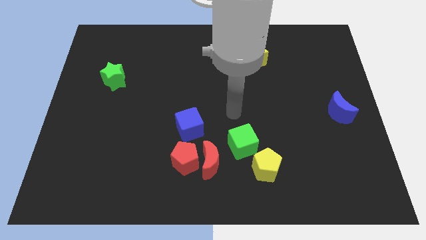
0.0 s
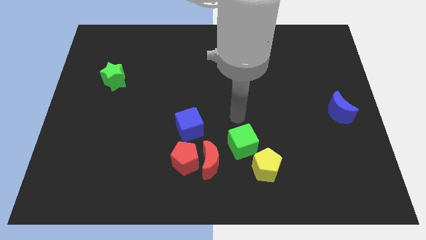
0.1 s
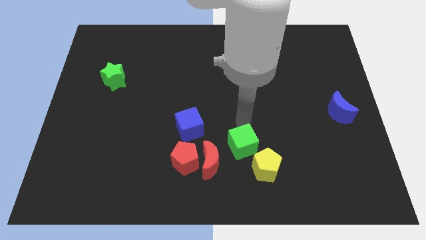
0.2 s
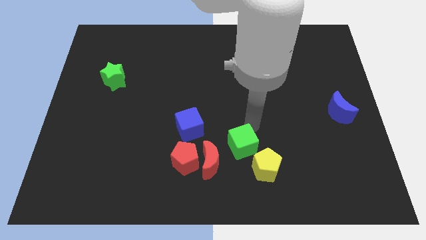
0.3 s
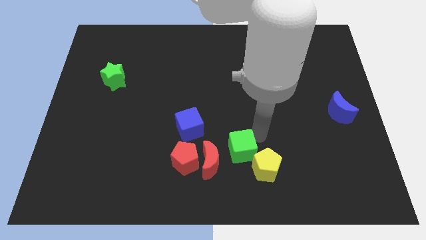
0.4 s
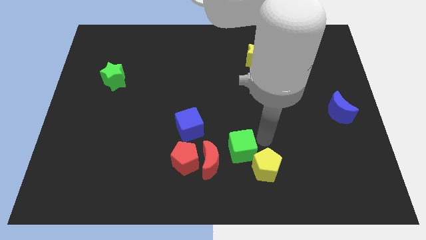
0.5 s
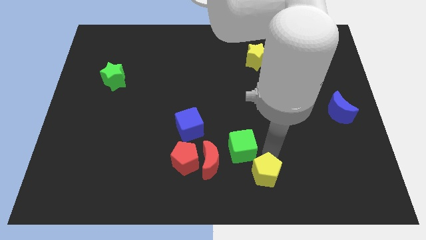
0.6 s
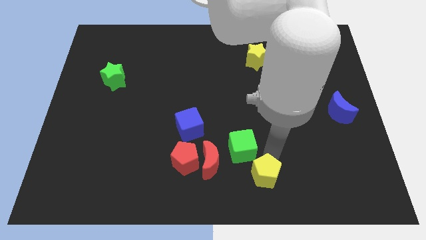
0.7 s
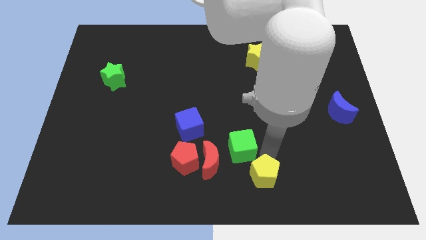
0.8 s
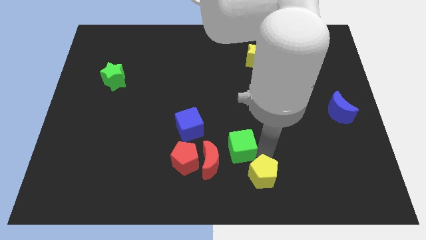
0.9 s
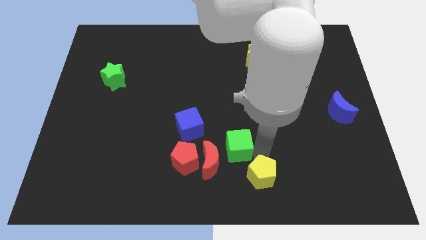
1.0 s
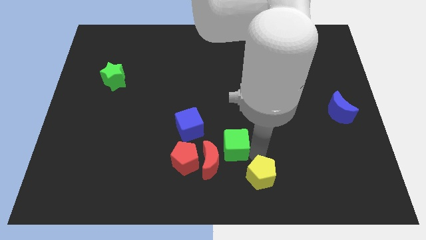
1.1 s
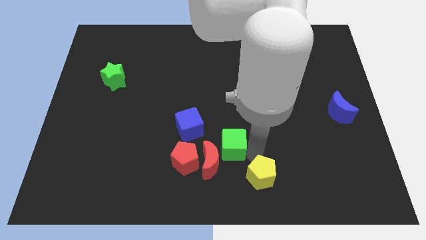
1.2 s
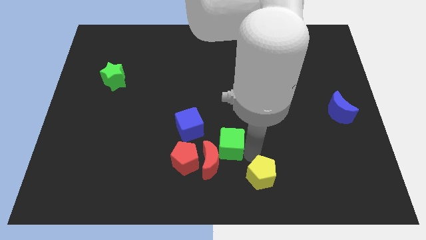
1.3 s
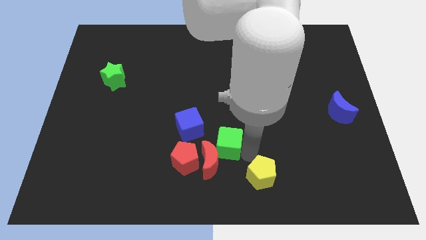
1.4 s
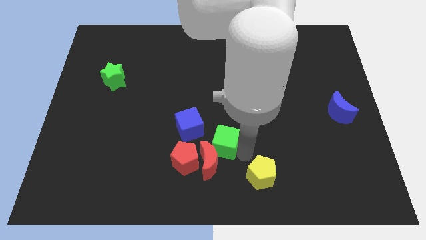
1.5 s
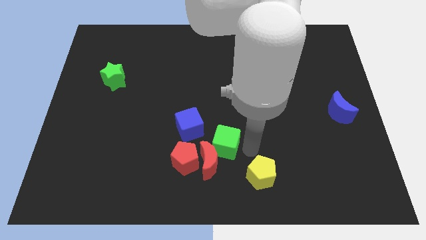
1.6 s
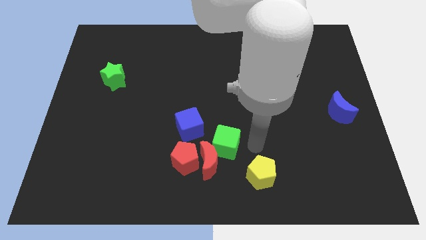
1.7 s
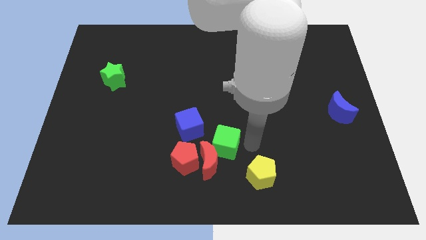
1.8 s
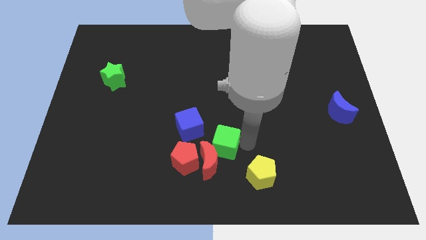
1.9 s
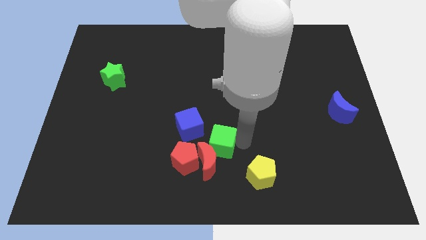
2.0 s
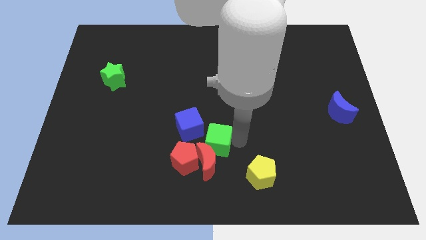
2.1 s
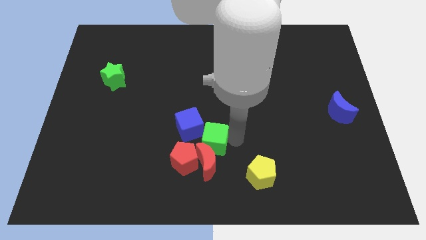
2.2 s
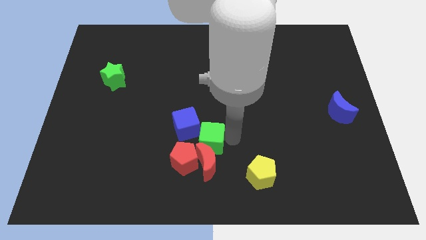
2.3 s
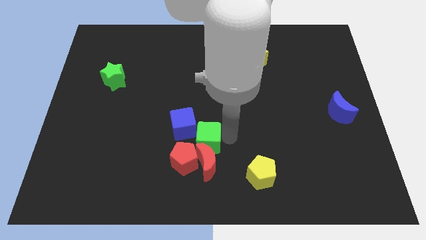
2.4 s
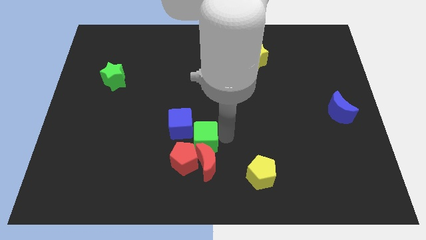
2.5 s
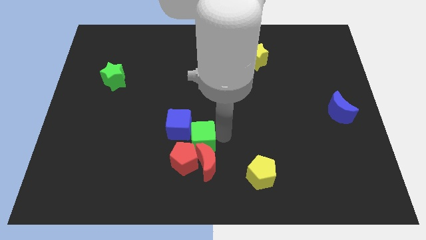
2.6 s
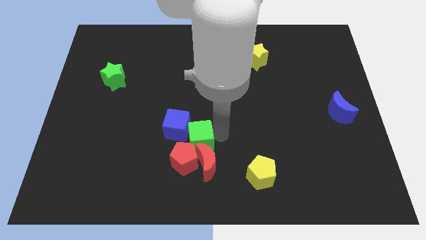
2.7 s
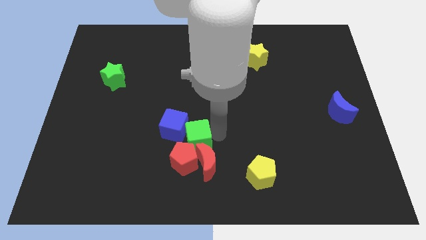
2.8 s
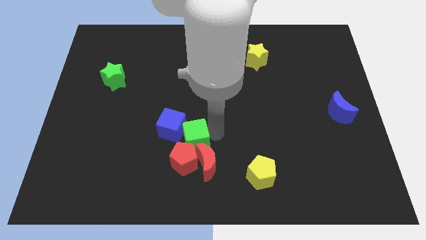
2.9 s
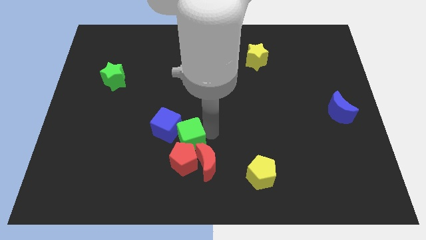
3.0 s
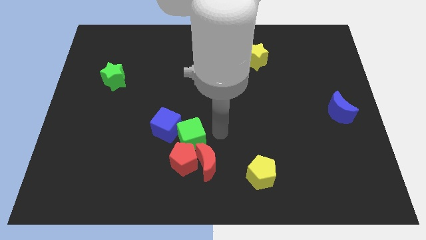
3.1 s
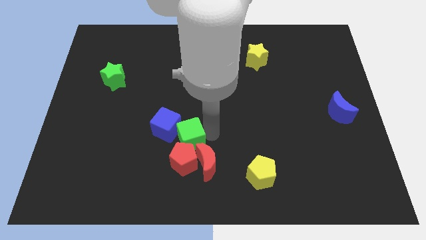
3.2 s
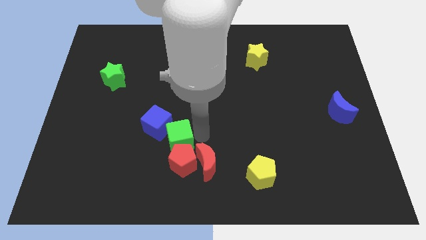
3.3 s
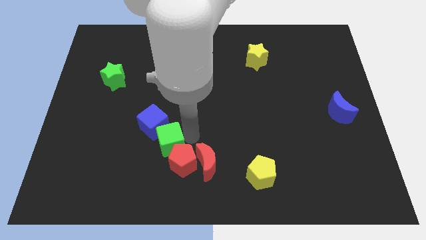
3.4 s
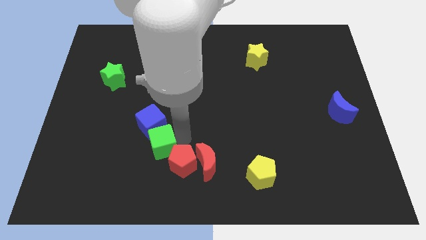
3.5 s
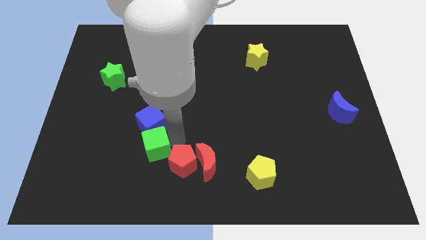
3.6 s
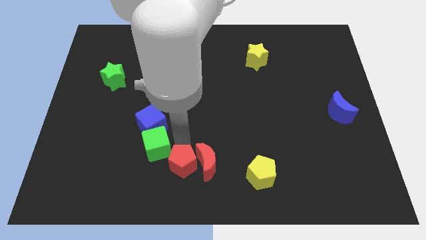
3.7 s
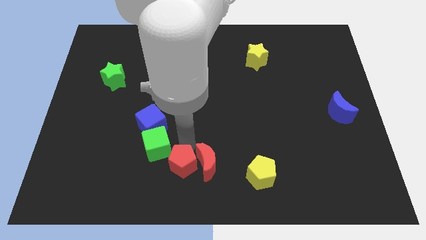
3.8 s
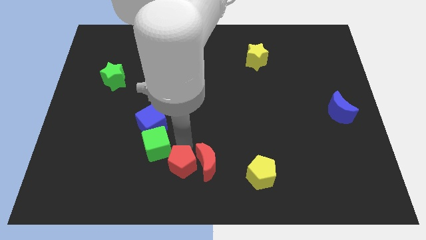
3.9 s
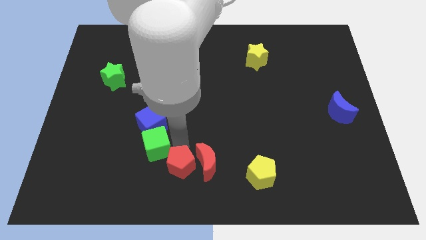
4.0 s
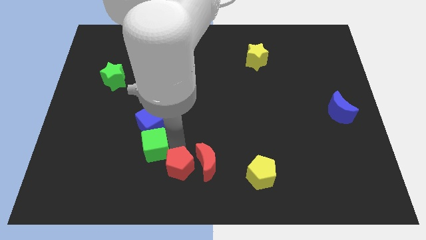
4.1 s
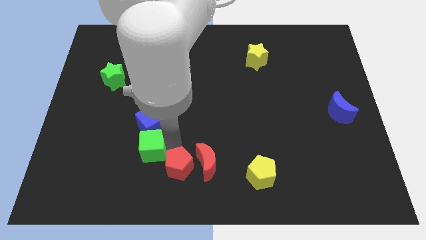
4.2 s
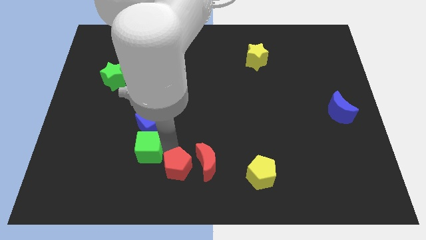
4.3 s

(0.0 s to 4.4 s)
push the green cube to the left

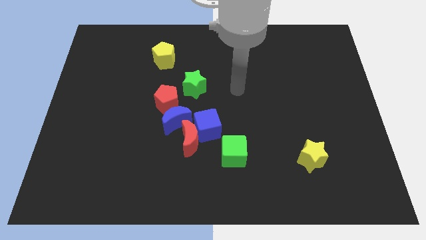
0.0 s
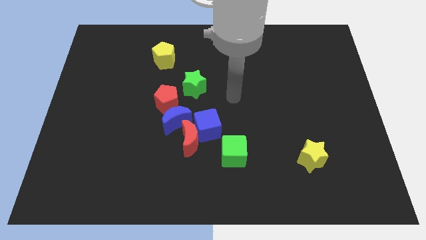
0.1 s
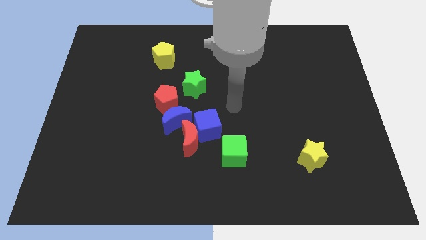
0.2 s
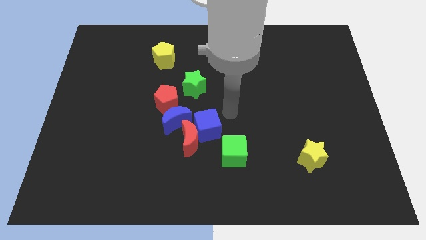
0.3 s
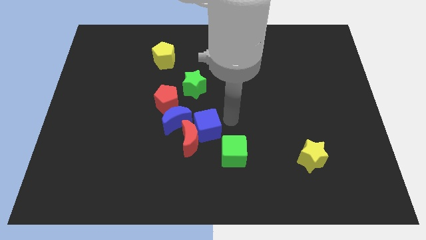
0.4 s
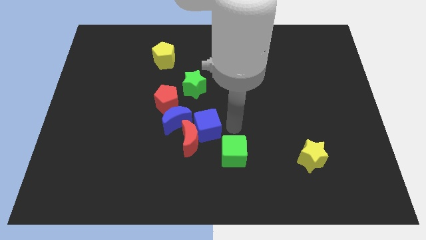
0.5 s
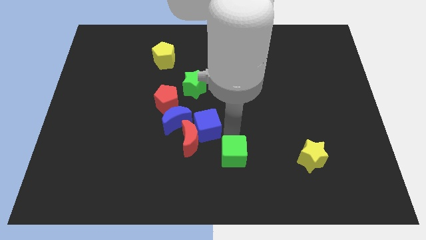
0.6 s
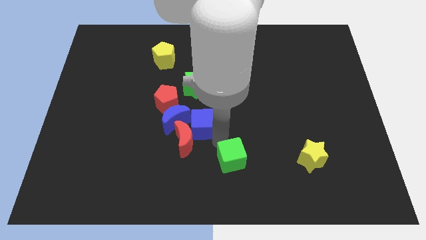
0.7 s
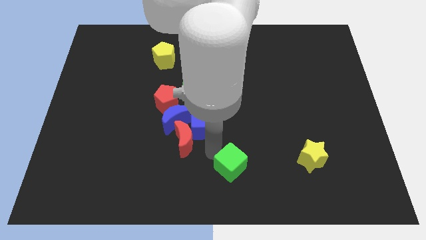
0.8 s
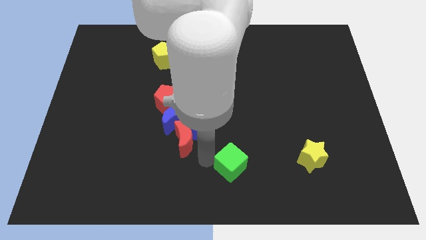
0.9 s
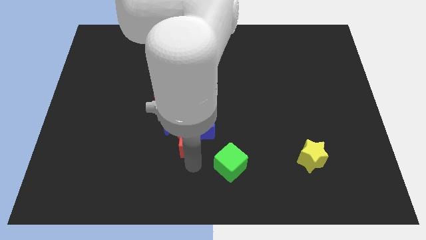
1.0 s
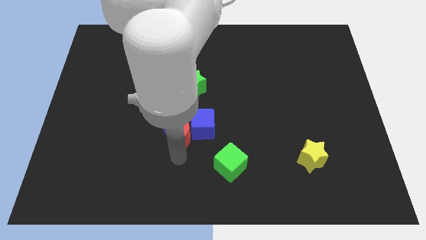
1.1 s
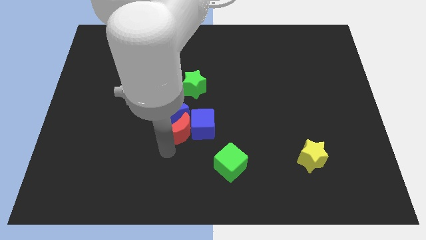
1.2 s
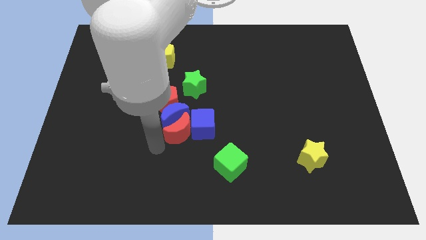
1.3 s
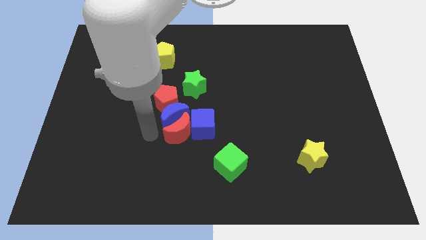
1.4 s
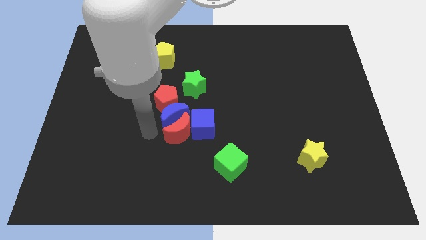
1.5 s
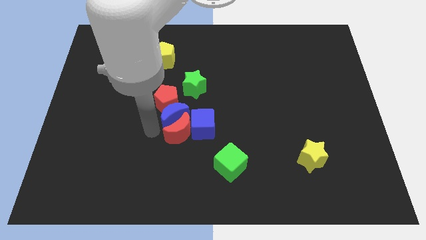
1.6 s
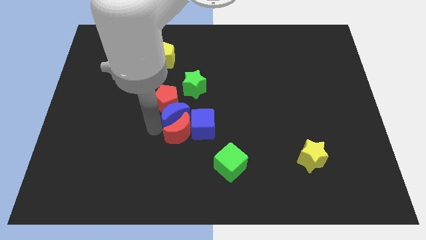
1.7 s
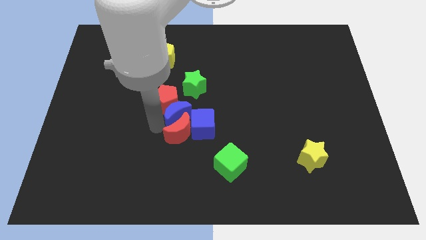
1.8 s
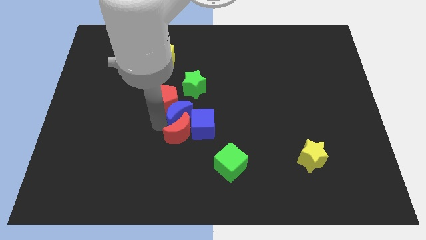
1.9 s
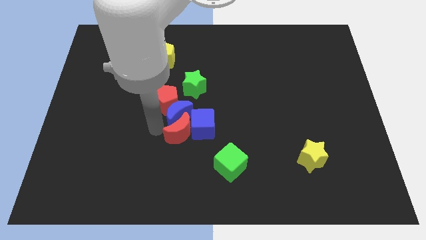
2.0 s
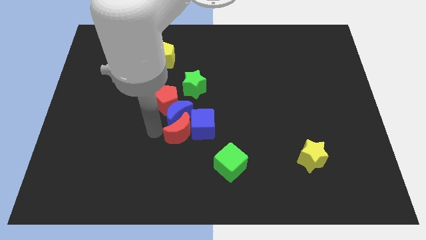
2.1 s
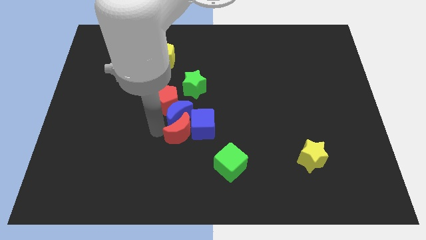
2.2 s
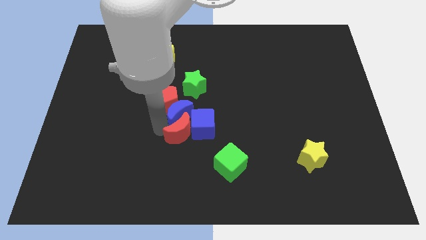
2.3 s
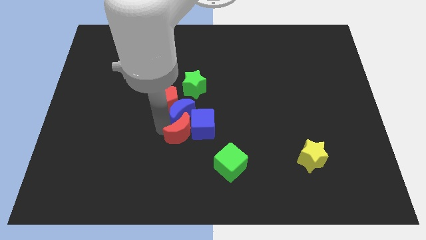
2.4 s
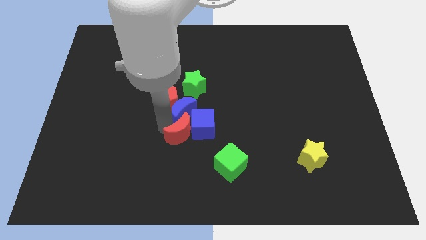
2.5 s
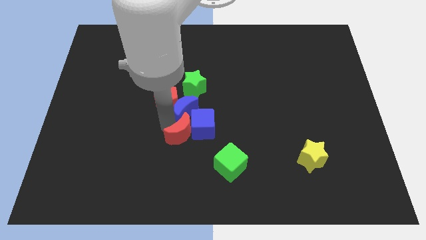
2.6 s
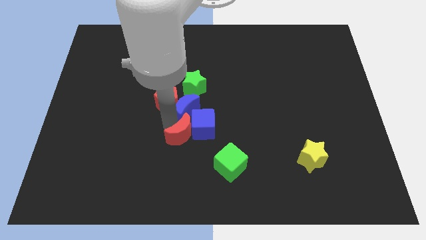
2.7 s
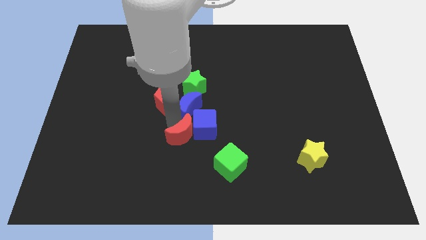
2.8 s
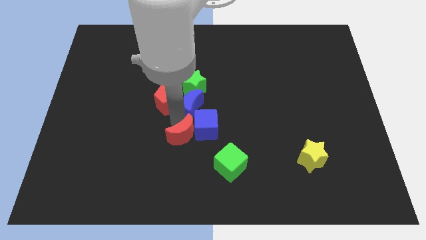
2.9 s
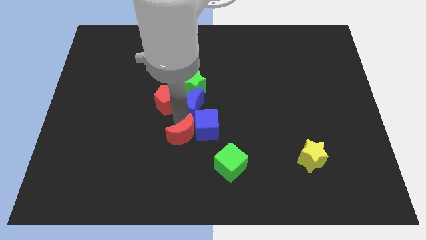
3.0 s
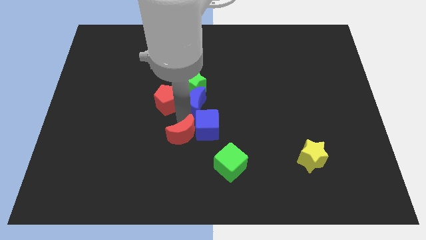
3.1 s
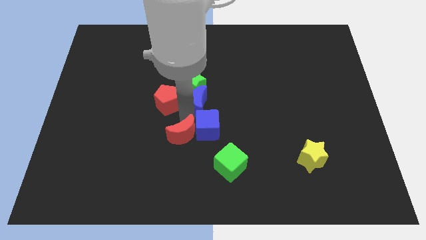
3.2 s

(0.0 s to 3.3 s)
slightly push the blue moon up and then to the right
